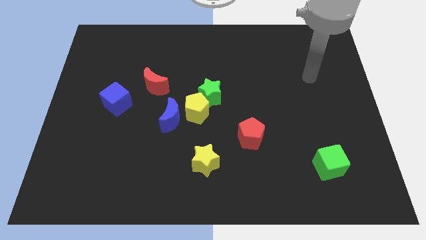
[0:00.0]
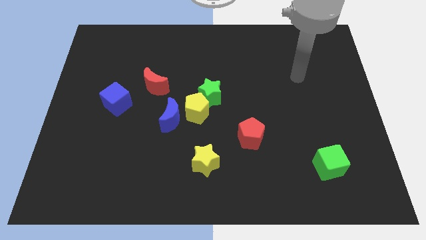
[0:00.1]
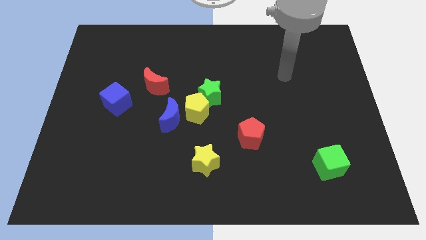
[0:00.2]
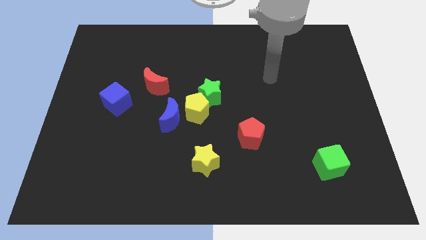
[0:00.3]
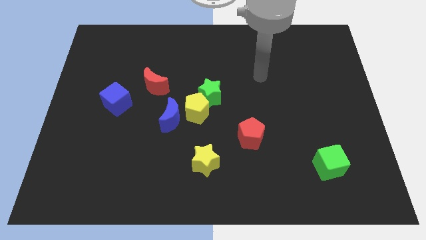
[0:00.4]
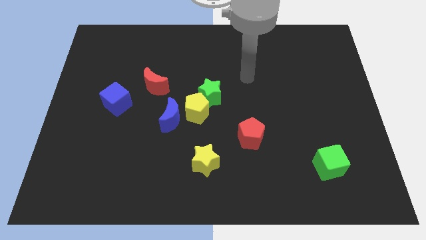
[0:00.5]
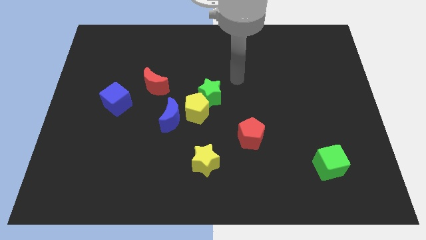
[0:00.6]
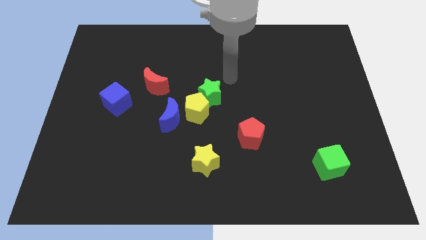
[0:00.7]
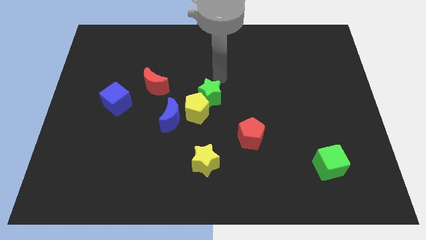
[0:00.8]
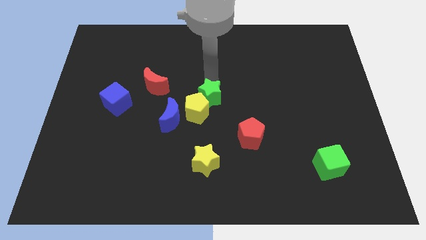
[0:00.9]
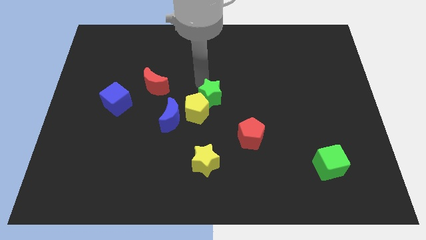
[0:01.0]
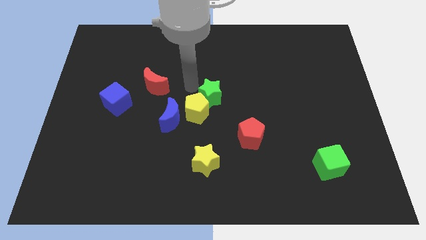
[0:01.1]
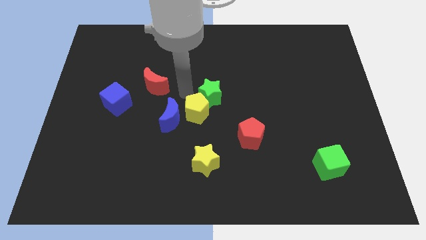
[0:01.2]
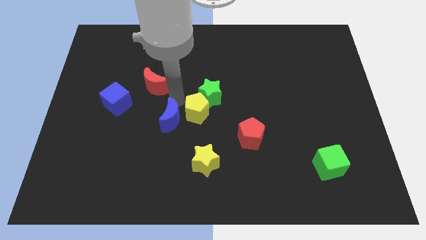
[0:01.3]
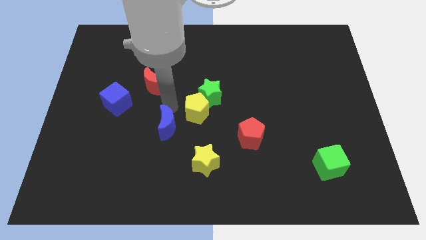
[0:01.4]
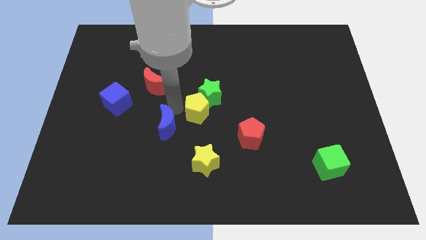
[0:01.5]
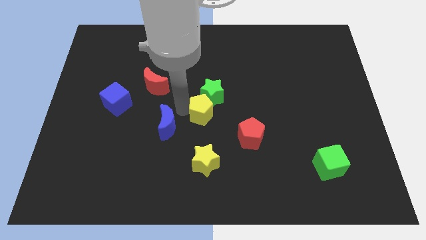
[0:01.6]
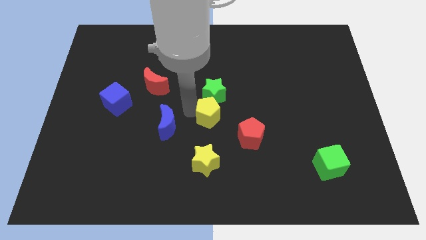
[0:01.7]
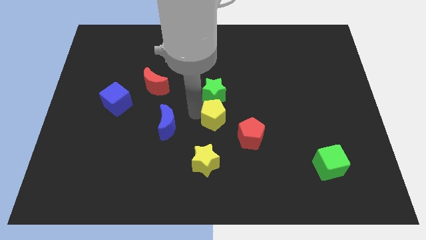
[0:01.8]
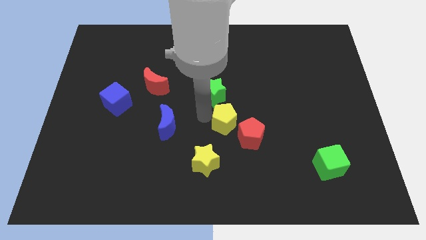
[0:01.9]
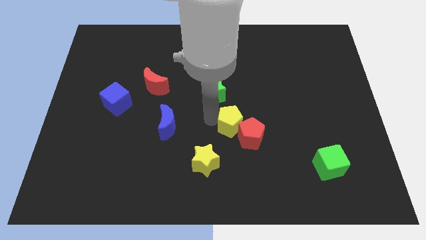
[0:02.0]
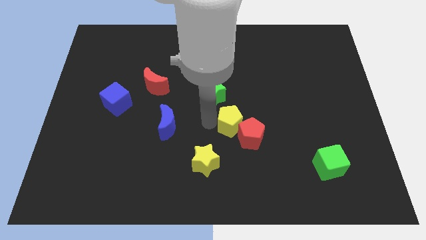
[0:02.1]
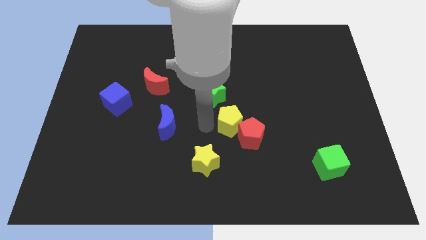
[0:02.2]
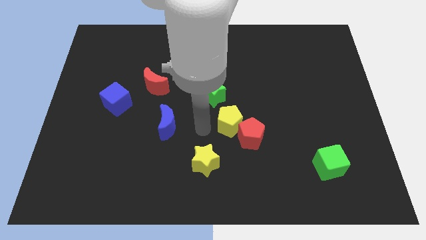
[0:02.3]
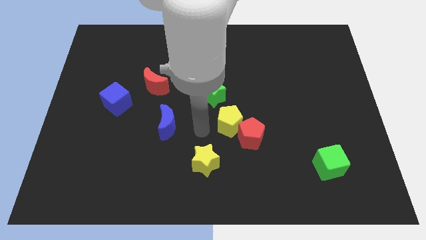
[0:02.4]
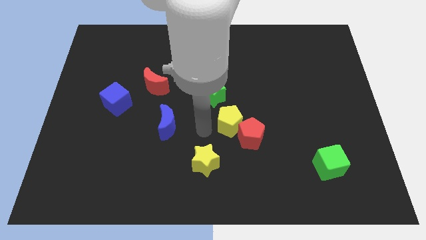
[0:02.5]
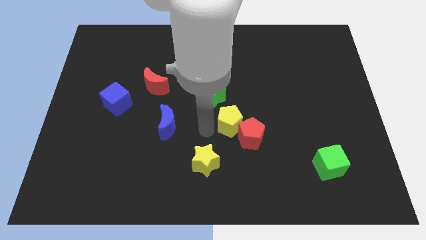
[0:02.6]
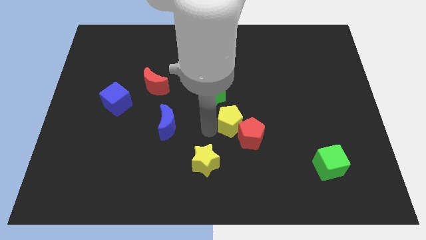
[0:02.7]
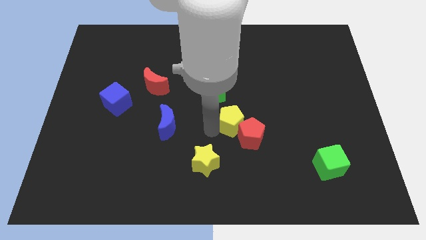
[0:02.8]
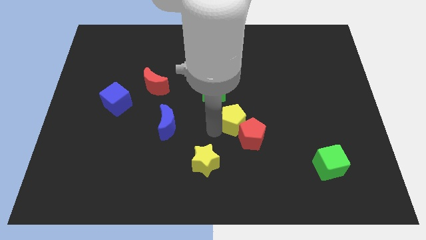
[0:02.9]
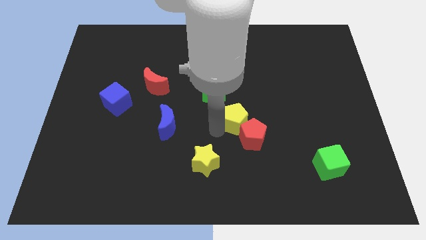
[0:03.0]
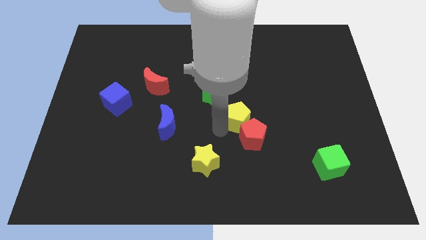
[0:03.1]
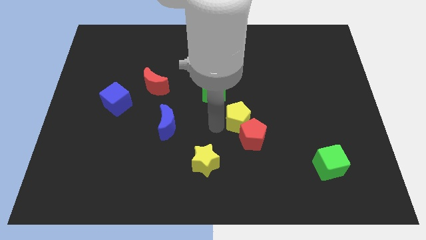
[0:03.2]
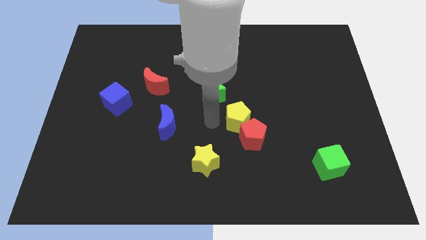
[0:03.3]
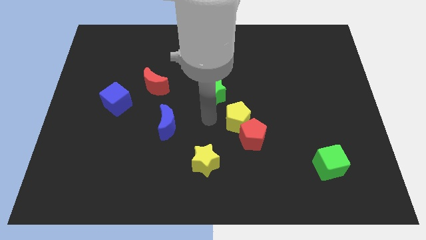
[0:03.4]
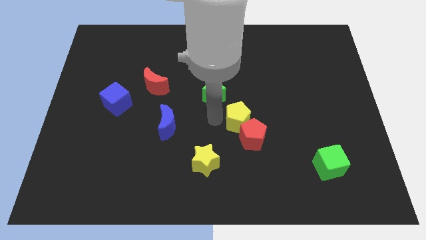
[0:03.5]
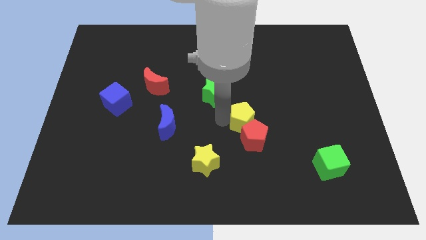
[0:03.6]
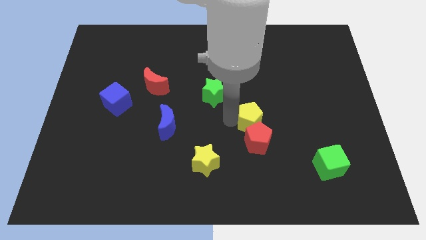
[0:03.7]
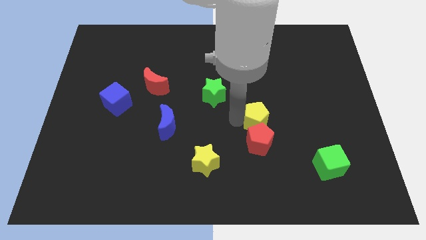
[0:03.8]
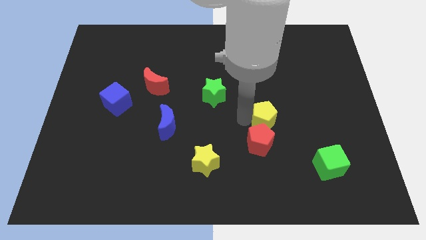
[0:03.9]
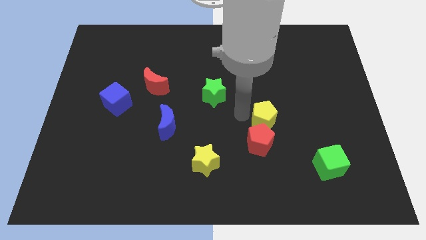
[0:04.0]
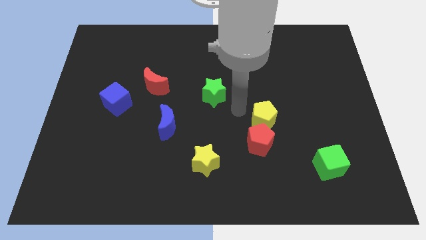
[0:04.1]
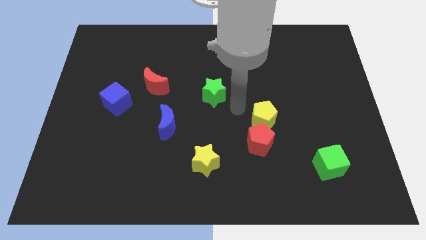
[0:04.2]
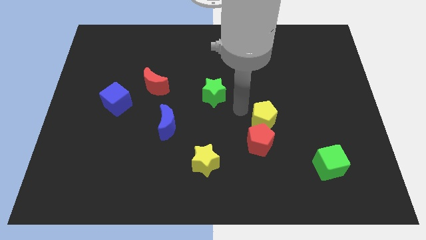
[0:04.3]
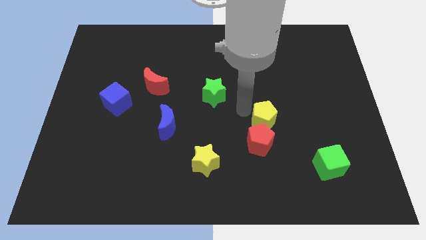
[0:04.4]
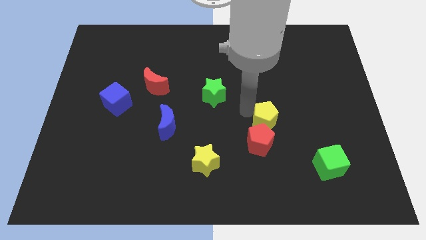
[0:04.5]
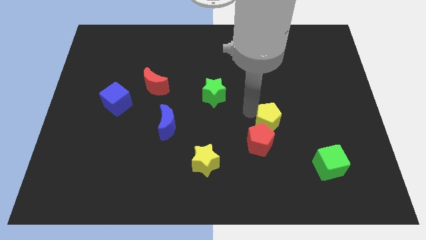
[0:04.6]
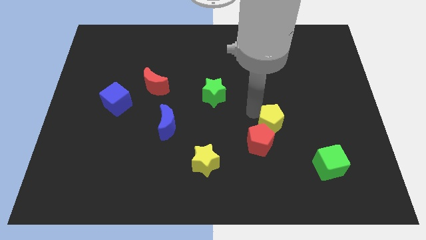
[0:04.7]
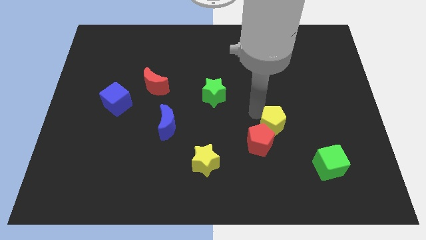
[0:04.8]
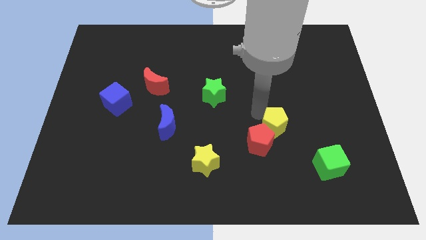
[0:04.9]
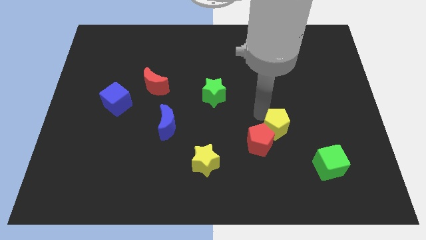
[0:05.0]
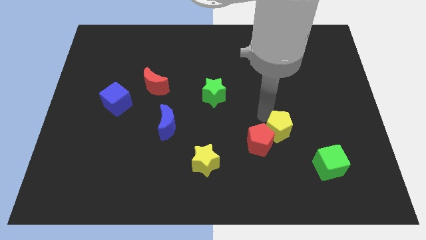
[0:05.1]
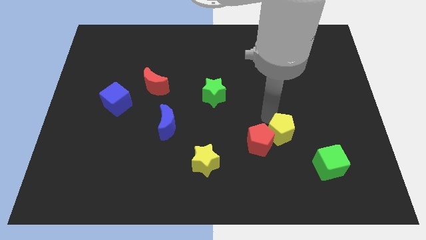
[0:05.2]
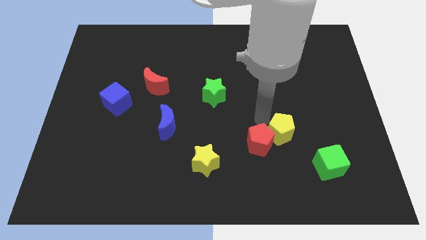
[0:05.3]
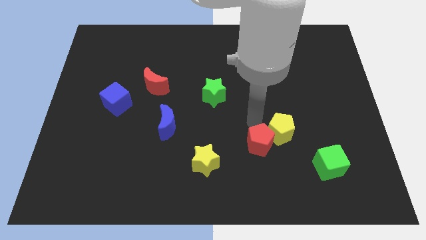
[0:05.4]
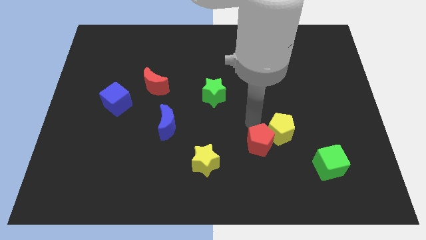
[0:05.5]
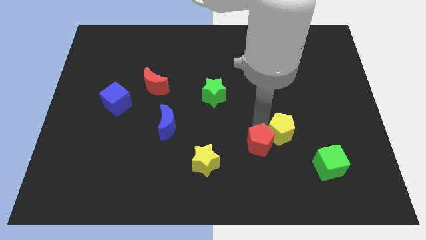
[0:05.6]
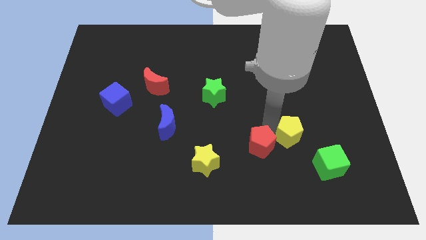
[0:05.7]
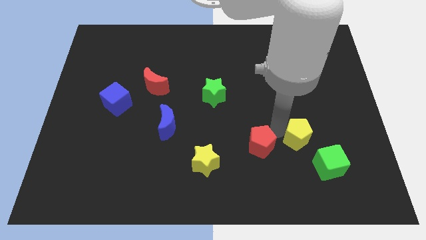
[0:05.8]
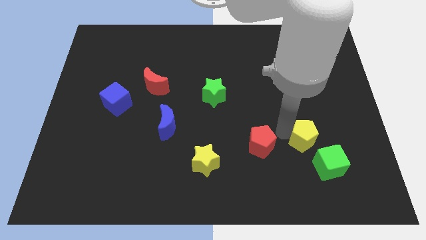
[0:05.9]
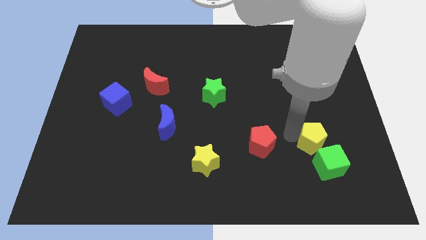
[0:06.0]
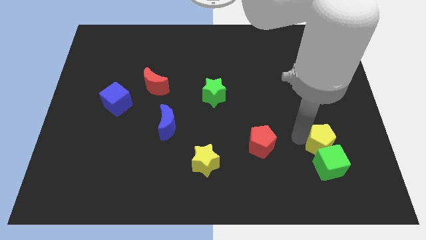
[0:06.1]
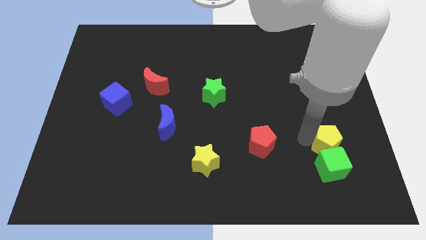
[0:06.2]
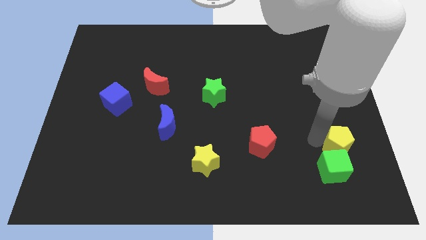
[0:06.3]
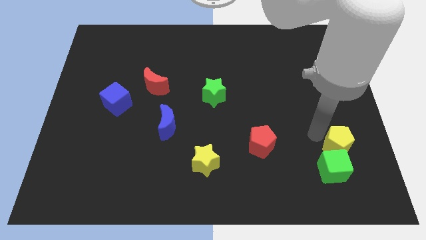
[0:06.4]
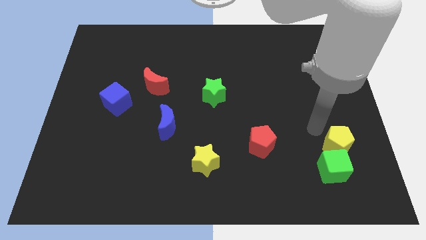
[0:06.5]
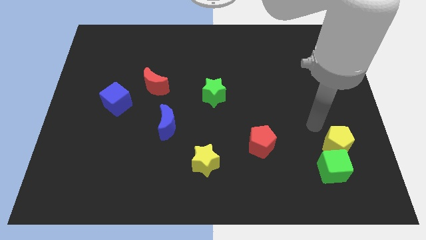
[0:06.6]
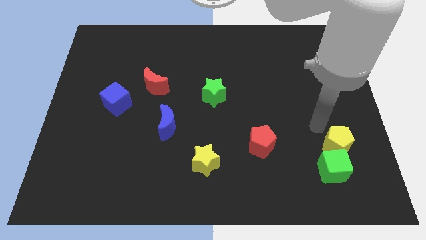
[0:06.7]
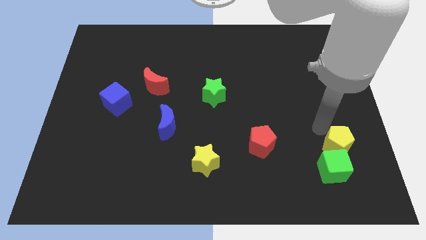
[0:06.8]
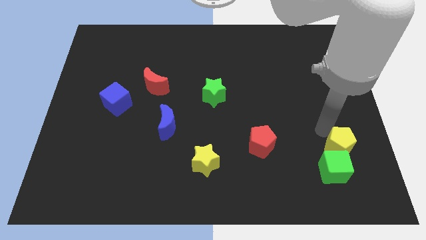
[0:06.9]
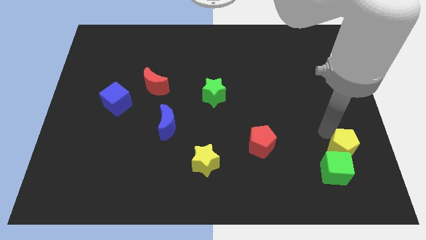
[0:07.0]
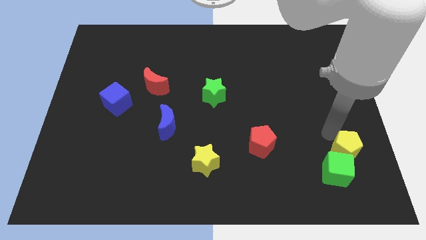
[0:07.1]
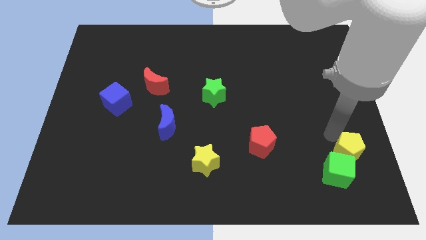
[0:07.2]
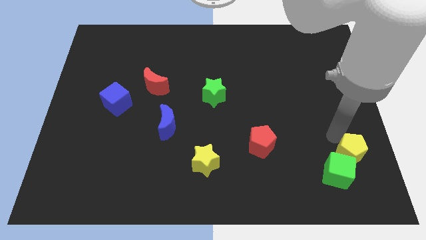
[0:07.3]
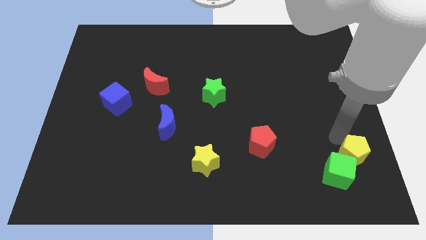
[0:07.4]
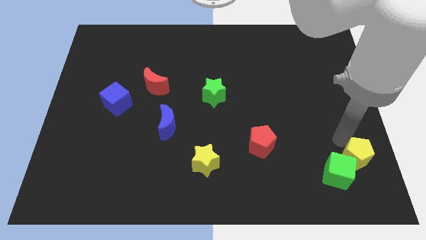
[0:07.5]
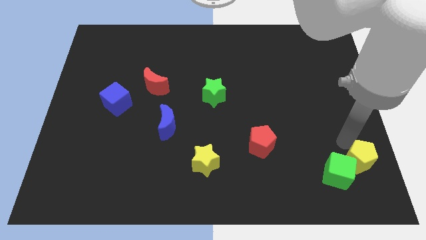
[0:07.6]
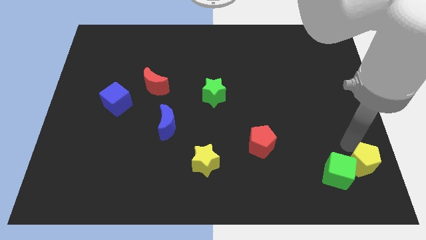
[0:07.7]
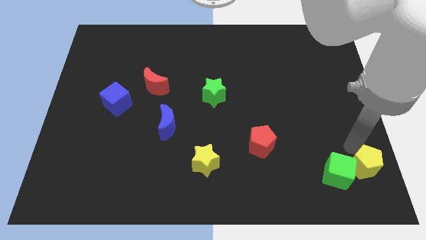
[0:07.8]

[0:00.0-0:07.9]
move the yellow pentagon to the bottom right corner
